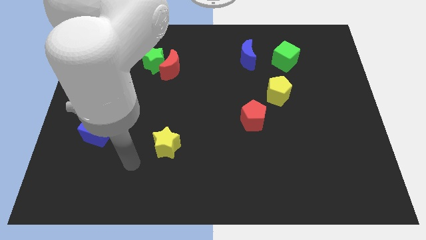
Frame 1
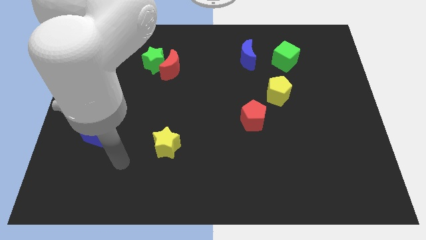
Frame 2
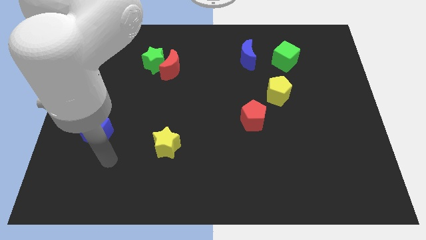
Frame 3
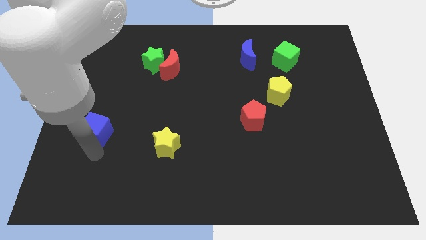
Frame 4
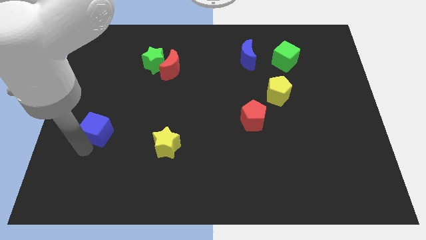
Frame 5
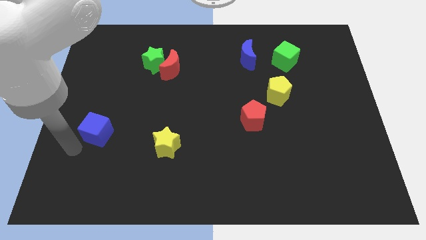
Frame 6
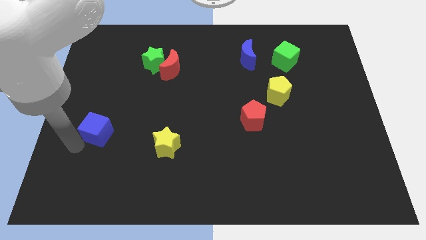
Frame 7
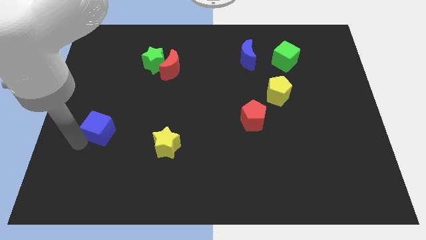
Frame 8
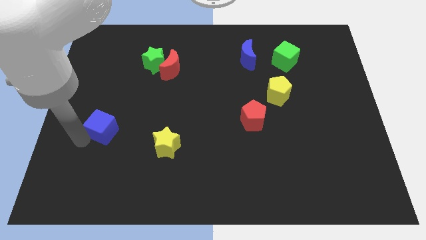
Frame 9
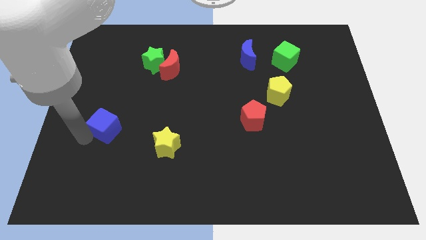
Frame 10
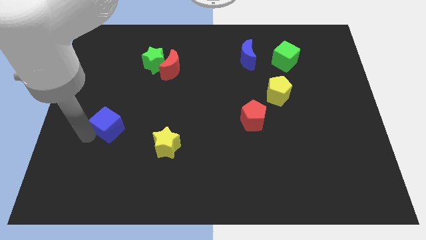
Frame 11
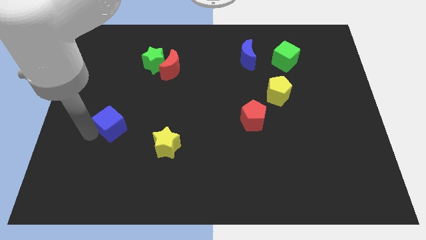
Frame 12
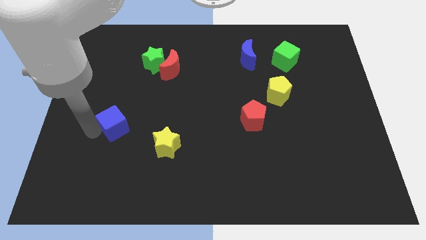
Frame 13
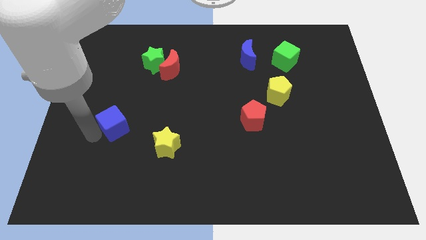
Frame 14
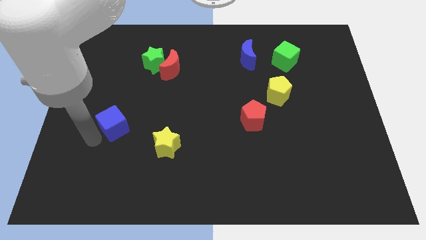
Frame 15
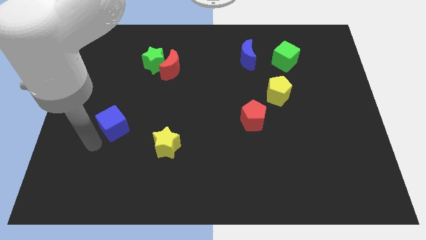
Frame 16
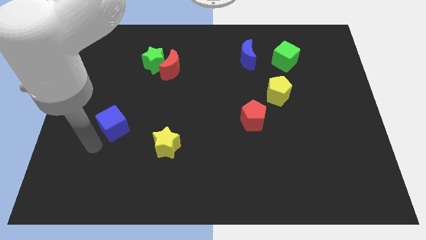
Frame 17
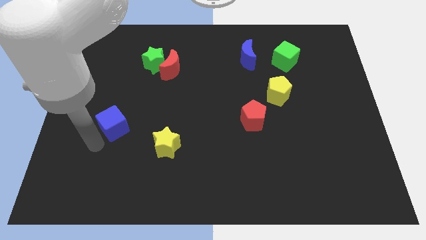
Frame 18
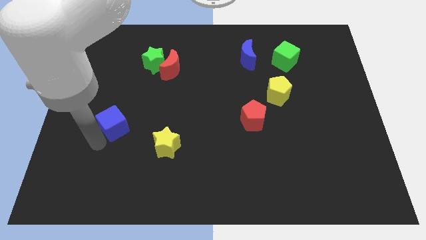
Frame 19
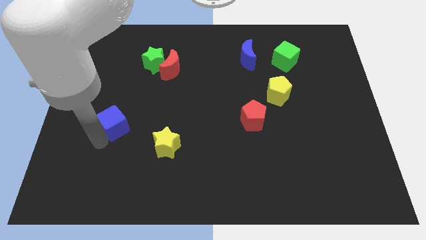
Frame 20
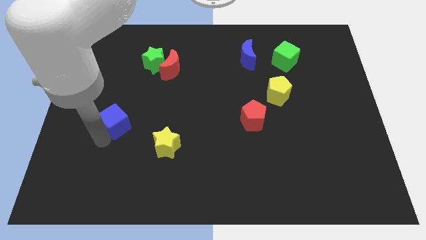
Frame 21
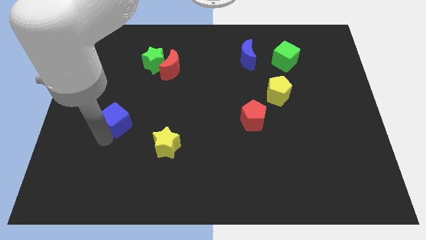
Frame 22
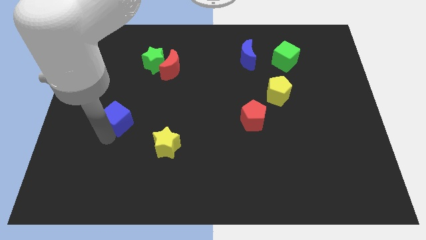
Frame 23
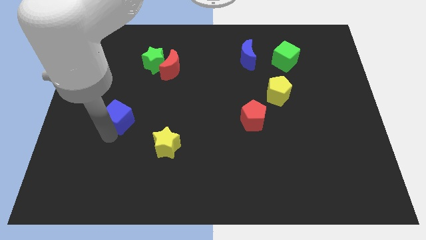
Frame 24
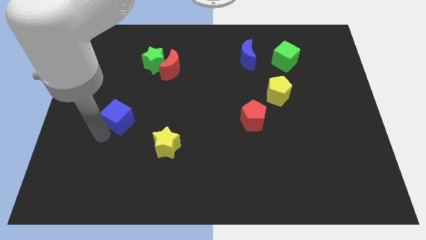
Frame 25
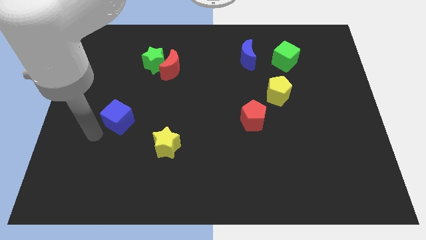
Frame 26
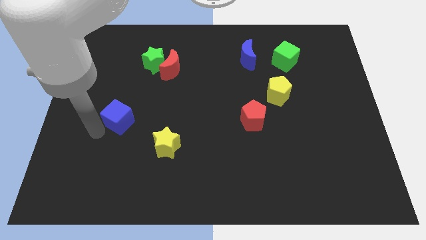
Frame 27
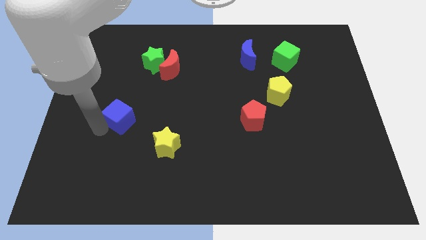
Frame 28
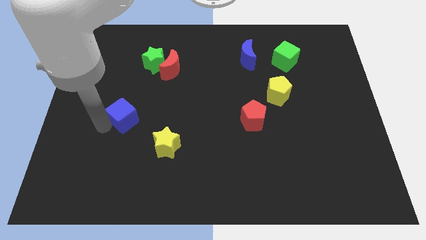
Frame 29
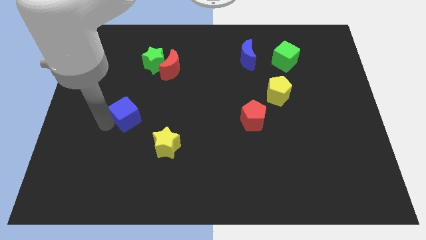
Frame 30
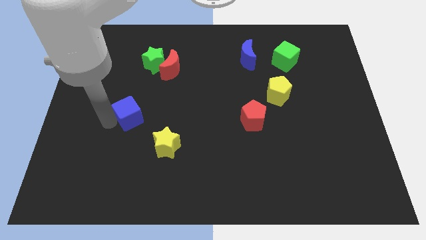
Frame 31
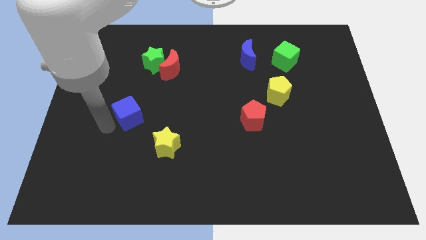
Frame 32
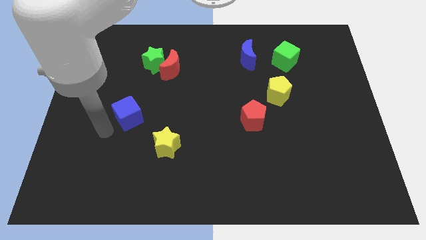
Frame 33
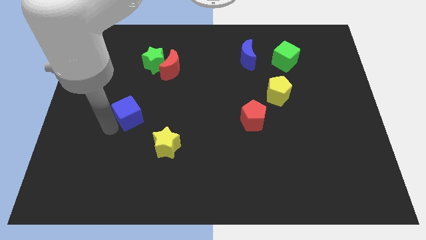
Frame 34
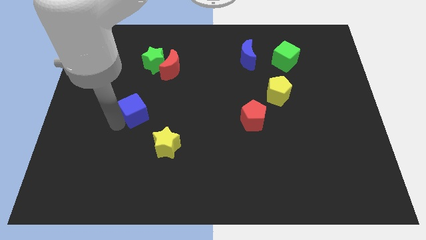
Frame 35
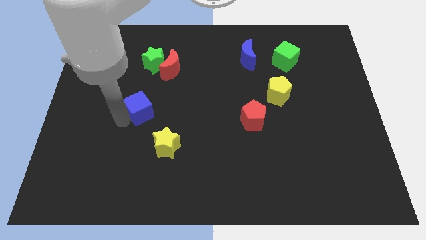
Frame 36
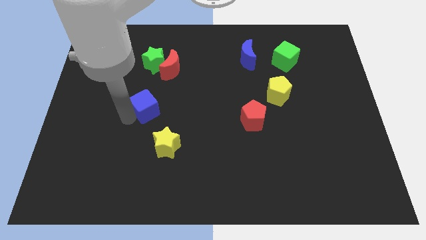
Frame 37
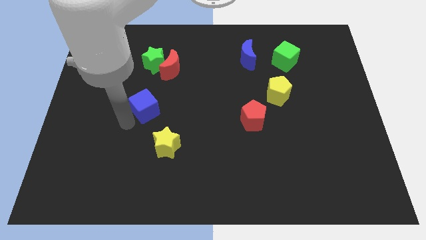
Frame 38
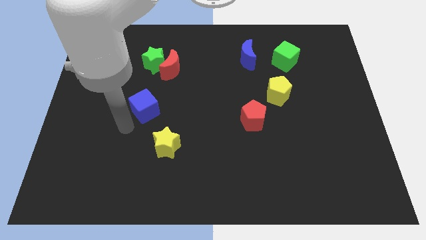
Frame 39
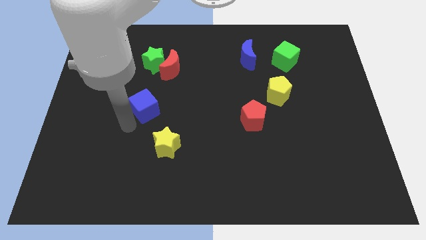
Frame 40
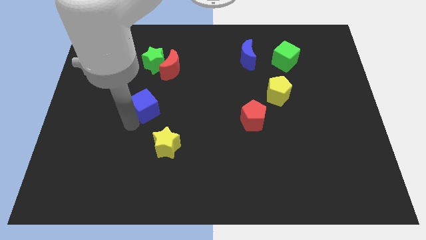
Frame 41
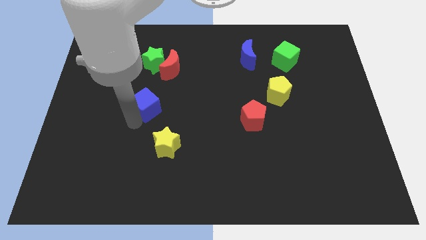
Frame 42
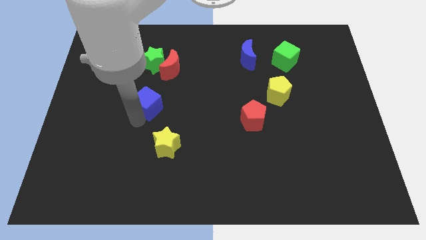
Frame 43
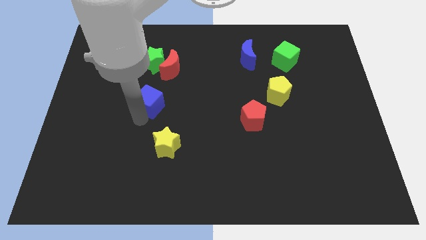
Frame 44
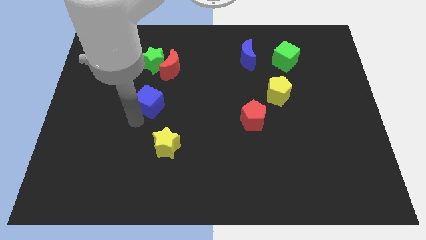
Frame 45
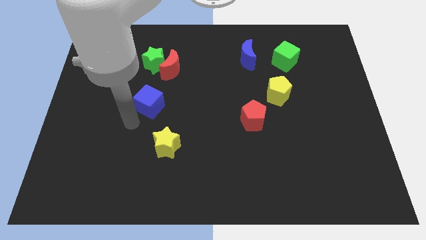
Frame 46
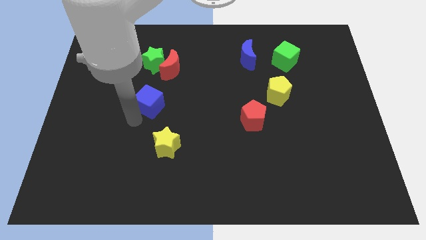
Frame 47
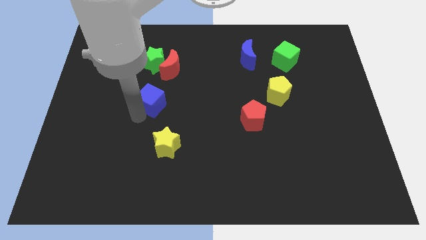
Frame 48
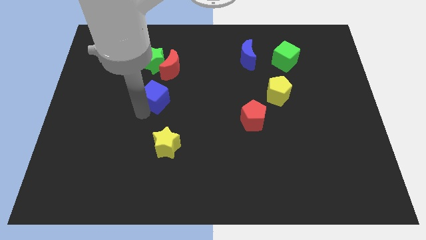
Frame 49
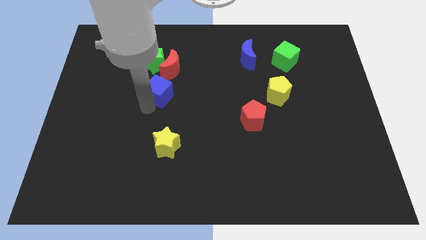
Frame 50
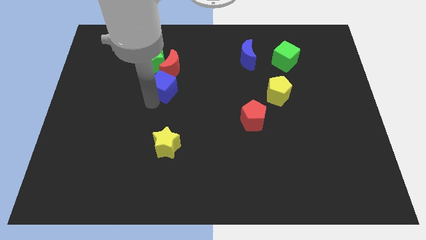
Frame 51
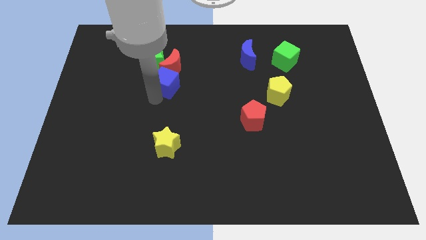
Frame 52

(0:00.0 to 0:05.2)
slide the blue cube upwards and right diagonally

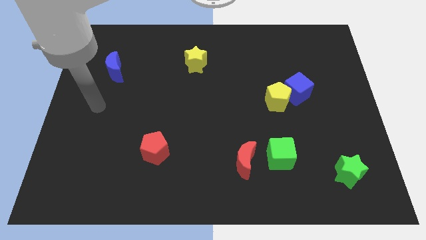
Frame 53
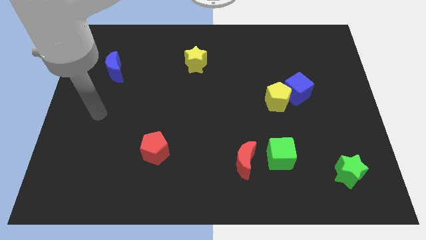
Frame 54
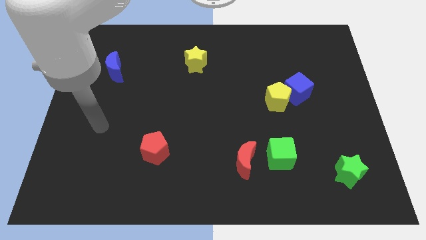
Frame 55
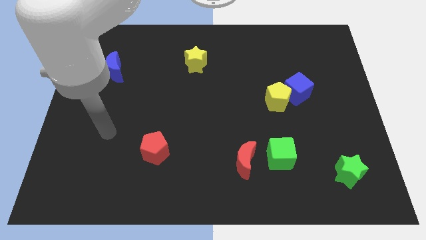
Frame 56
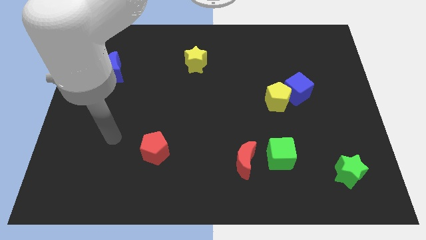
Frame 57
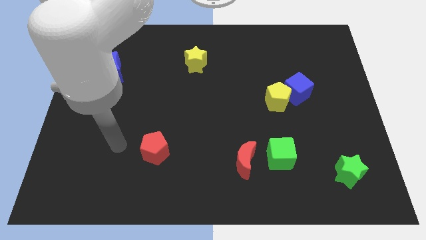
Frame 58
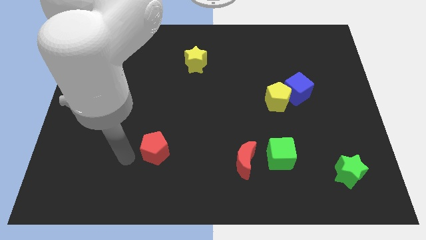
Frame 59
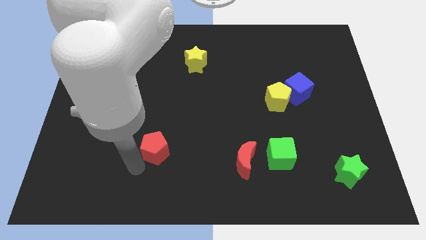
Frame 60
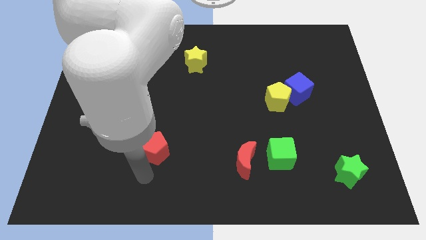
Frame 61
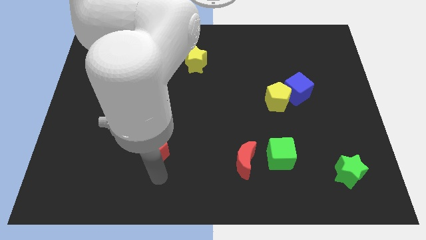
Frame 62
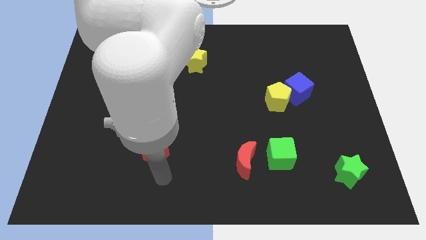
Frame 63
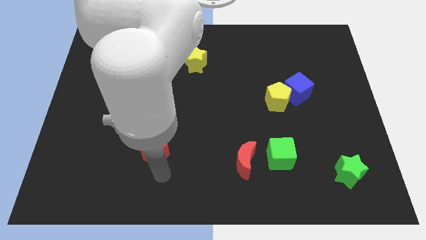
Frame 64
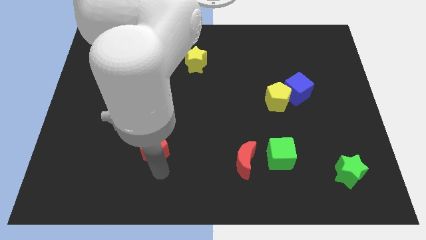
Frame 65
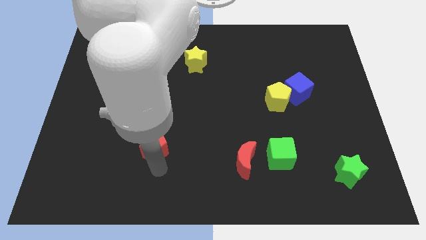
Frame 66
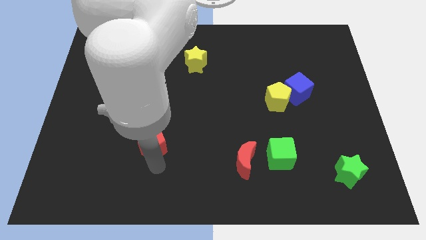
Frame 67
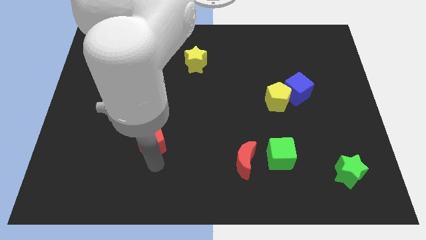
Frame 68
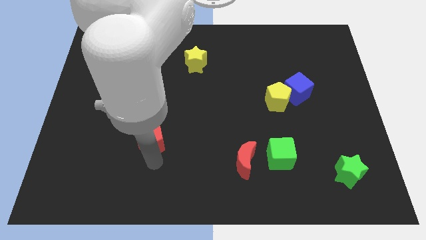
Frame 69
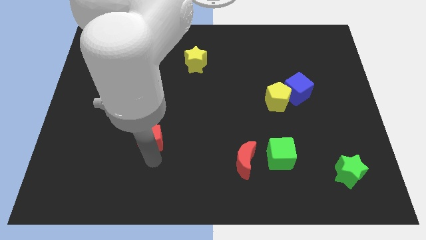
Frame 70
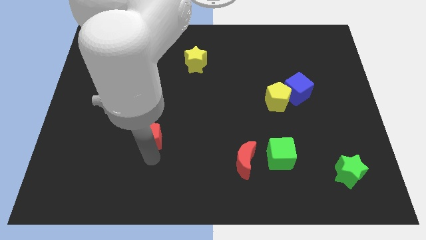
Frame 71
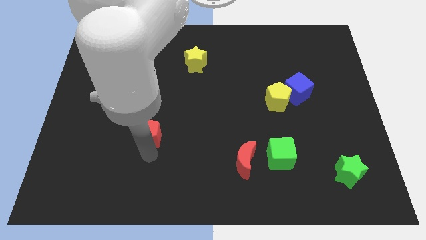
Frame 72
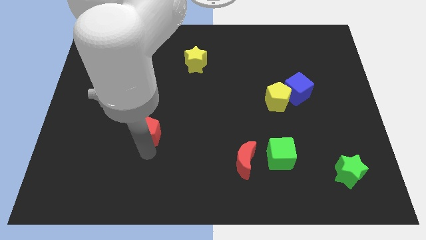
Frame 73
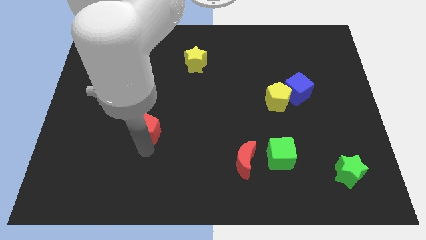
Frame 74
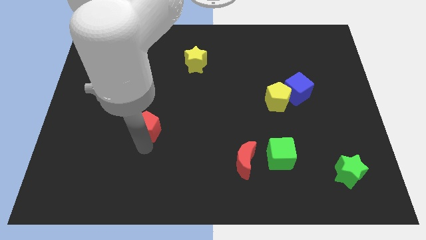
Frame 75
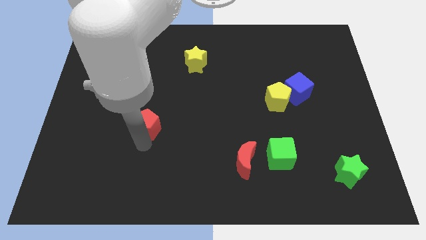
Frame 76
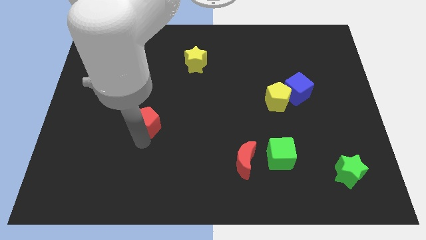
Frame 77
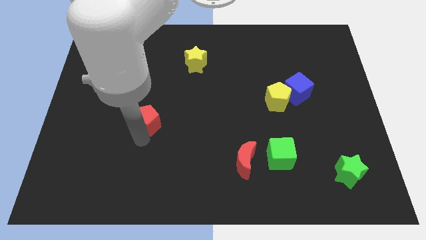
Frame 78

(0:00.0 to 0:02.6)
move the red pentagon a little upwards

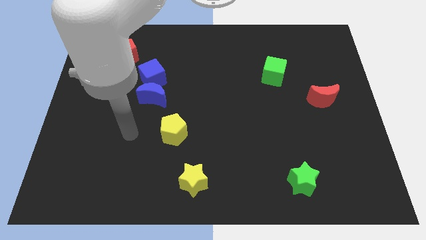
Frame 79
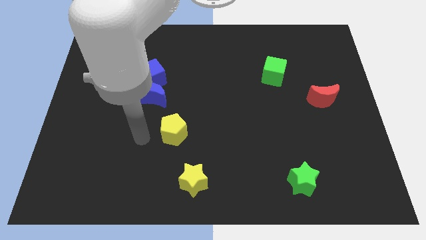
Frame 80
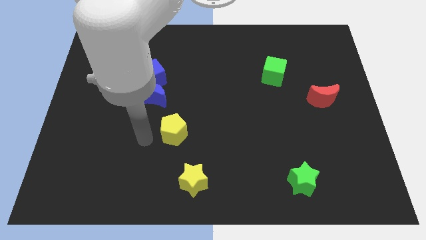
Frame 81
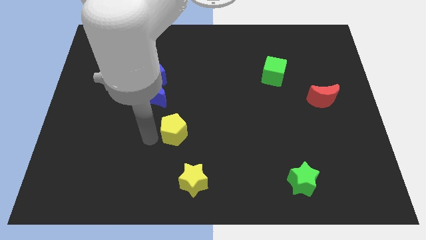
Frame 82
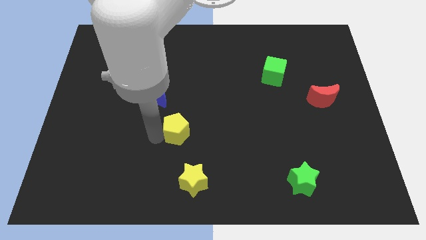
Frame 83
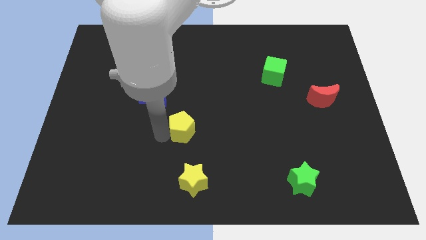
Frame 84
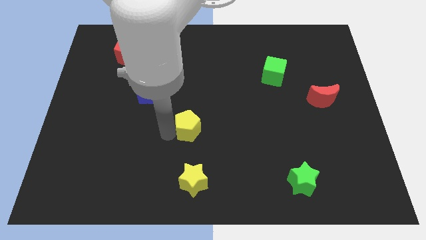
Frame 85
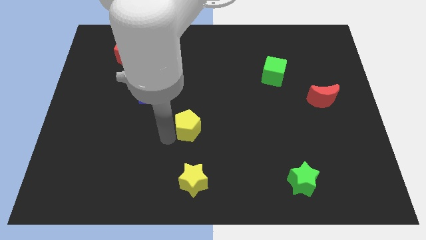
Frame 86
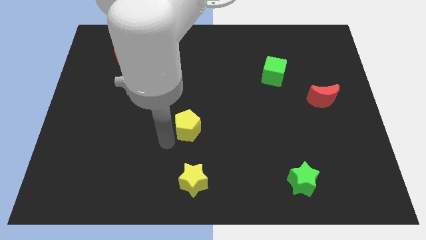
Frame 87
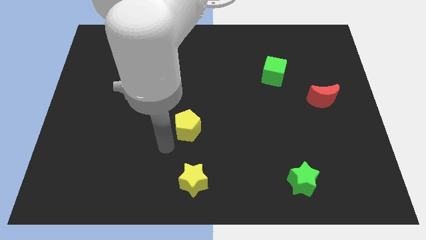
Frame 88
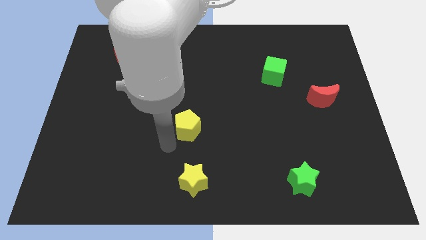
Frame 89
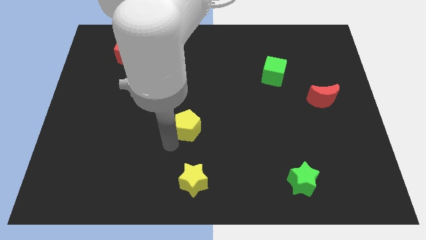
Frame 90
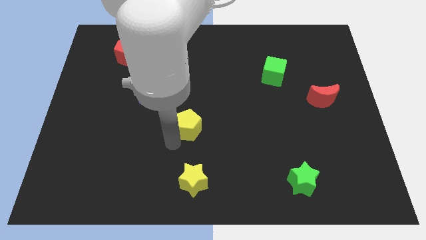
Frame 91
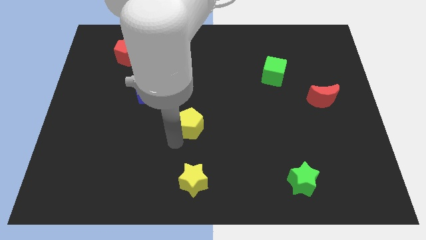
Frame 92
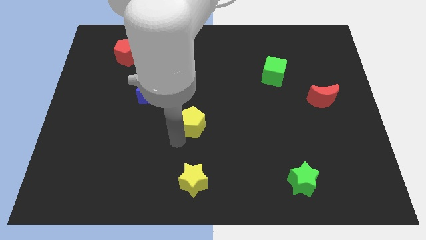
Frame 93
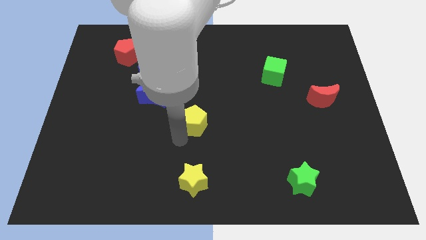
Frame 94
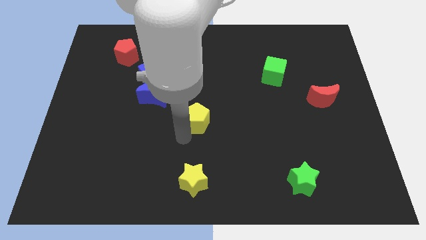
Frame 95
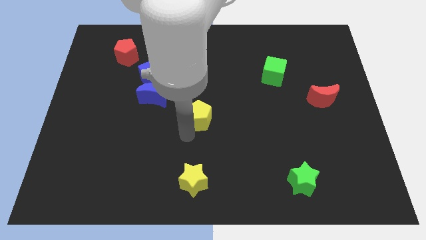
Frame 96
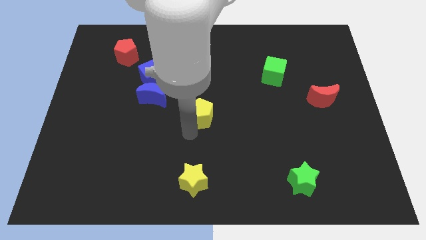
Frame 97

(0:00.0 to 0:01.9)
push the yellow pentagon up and then right a little bit
